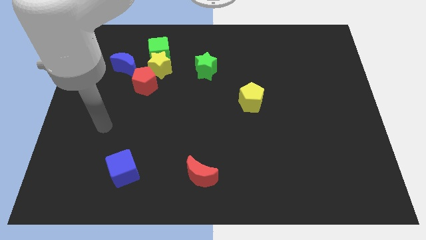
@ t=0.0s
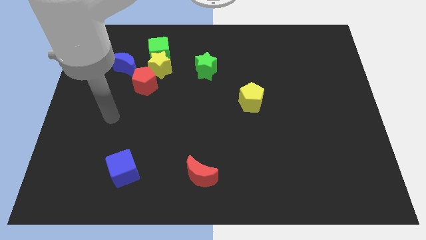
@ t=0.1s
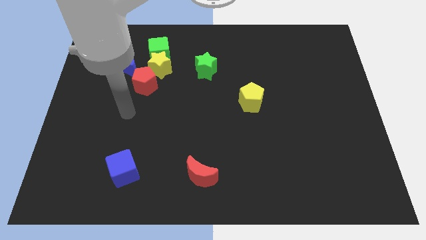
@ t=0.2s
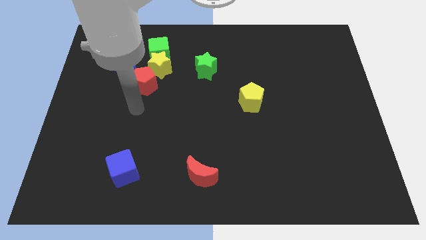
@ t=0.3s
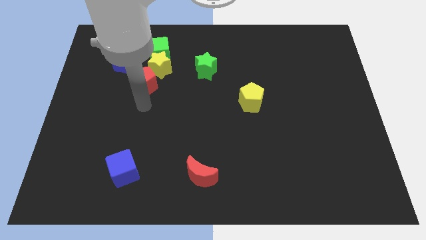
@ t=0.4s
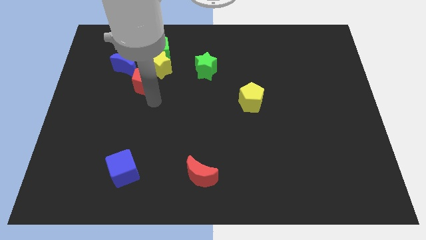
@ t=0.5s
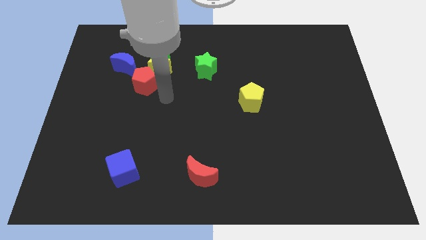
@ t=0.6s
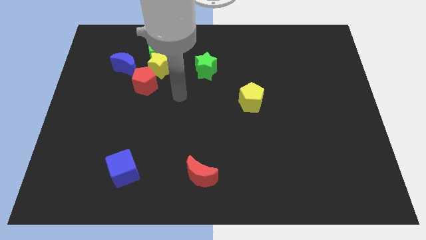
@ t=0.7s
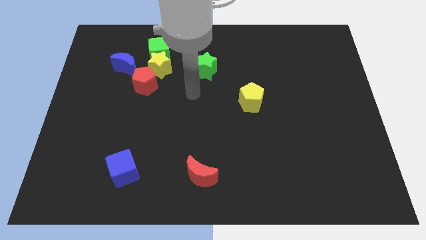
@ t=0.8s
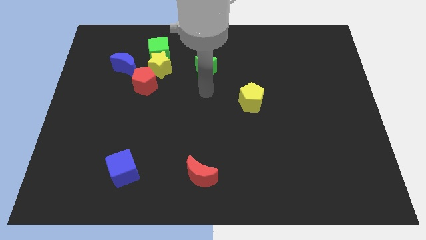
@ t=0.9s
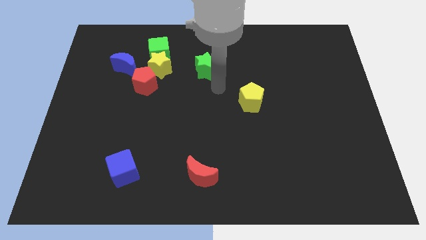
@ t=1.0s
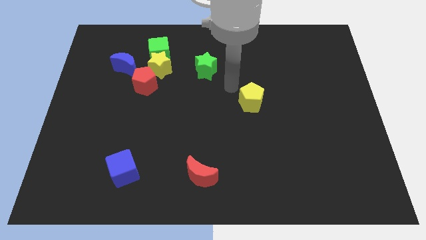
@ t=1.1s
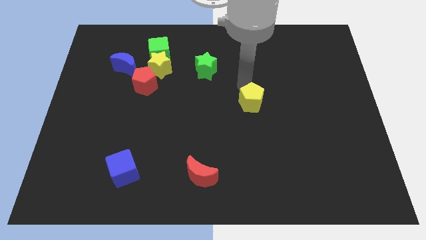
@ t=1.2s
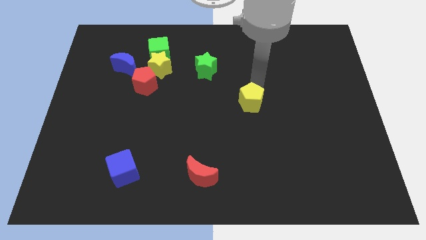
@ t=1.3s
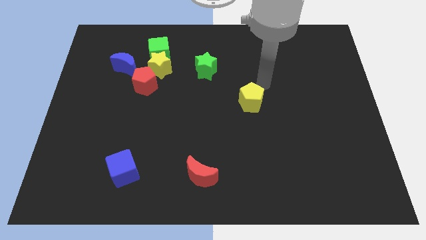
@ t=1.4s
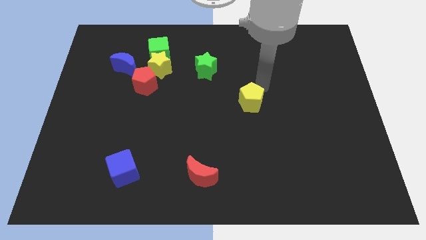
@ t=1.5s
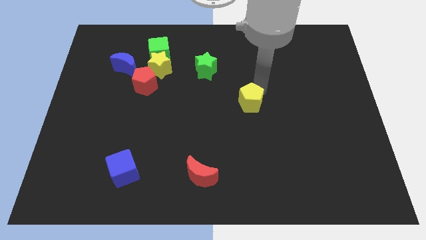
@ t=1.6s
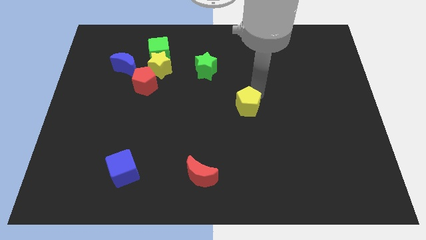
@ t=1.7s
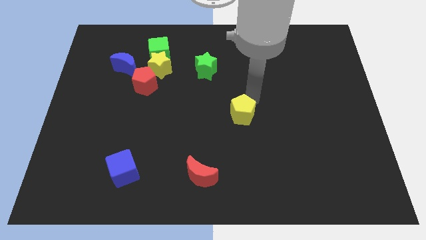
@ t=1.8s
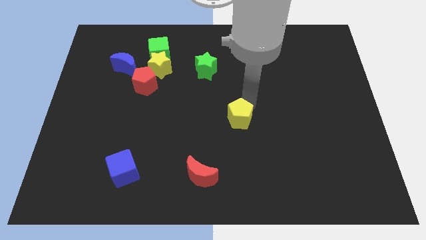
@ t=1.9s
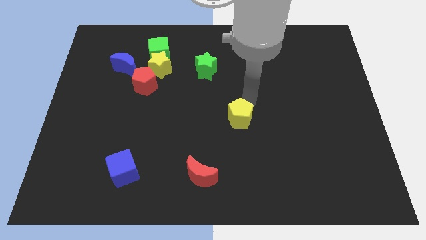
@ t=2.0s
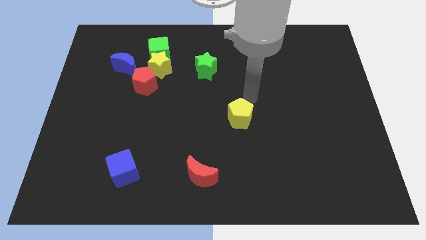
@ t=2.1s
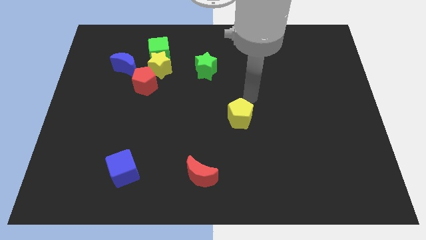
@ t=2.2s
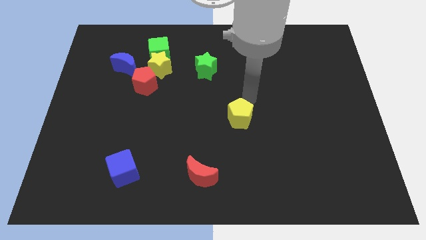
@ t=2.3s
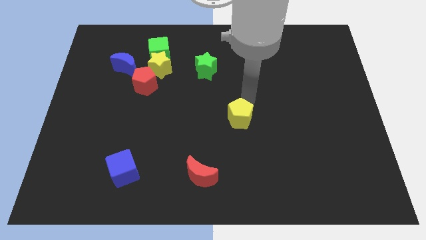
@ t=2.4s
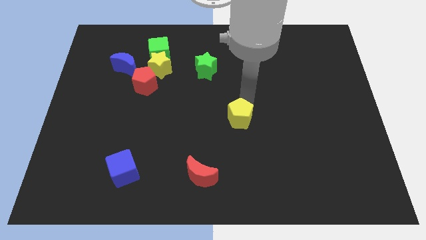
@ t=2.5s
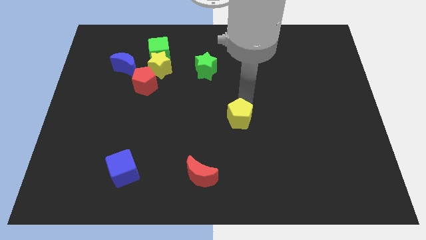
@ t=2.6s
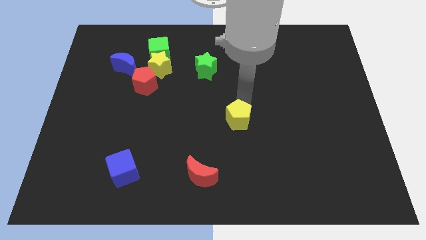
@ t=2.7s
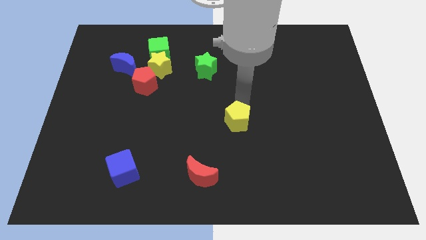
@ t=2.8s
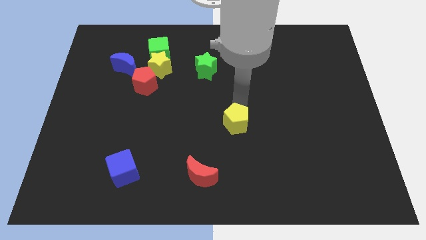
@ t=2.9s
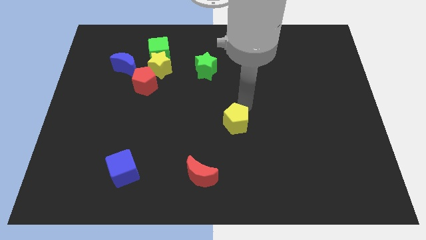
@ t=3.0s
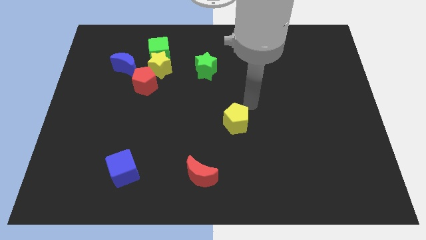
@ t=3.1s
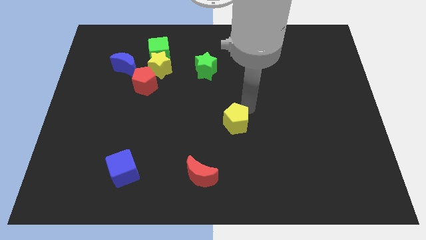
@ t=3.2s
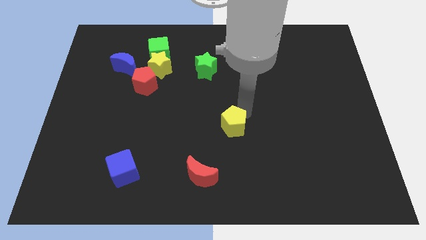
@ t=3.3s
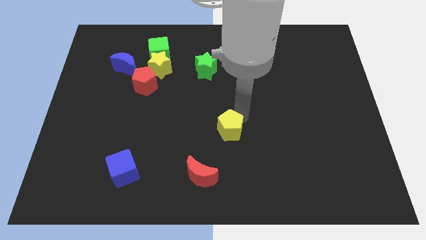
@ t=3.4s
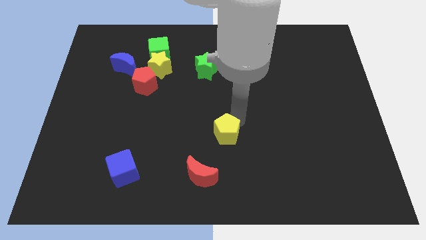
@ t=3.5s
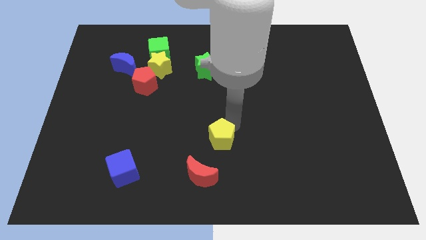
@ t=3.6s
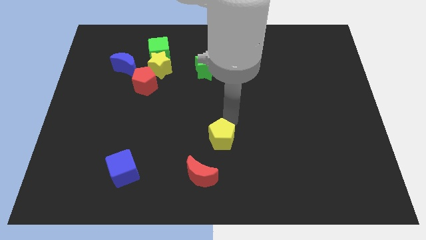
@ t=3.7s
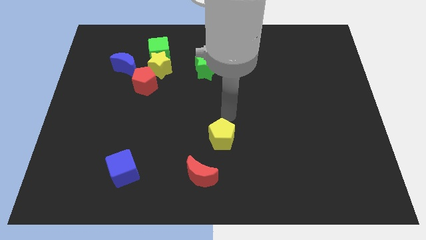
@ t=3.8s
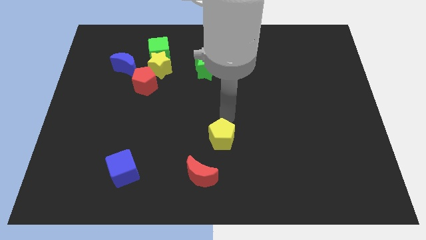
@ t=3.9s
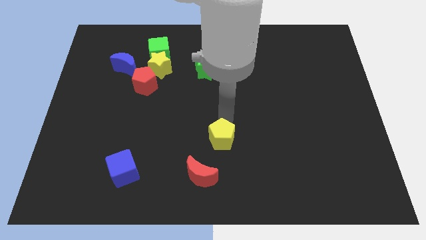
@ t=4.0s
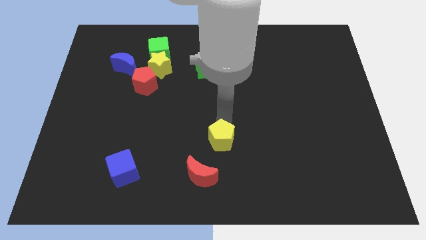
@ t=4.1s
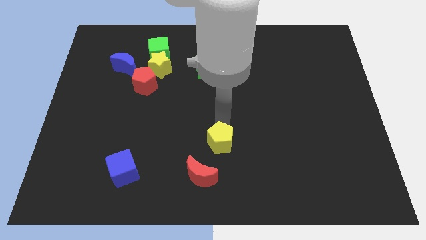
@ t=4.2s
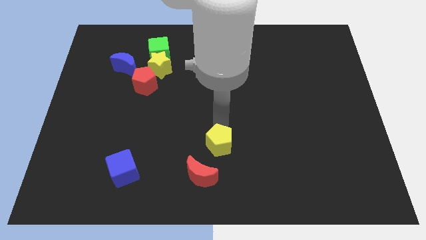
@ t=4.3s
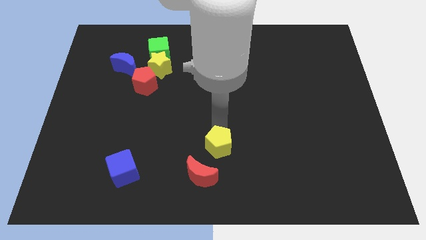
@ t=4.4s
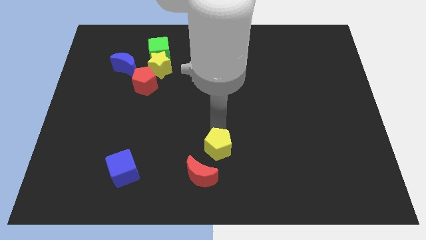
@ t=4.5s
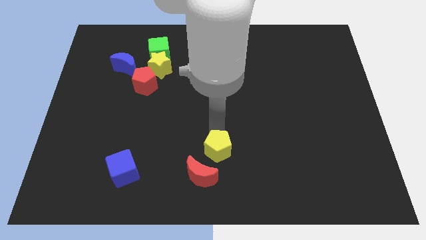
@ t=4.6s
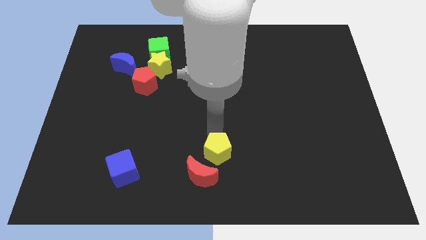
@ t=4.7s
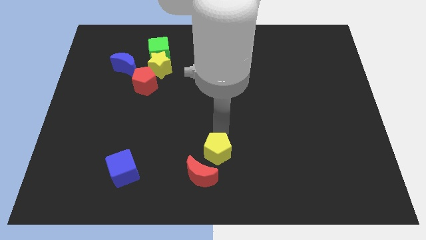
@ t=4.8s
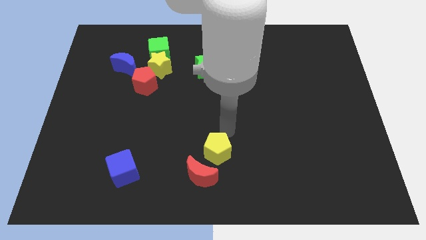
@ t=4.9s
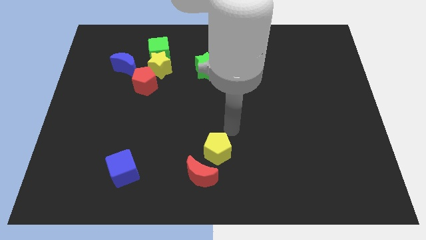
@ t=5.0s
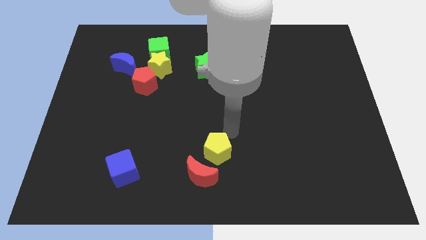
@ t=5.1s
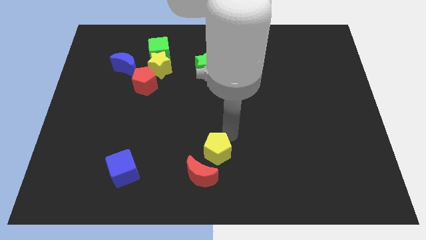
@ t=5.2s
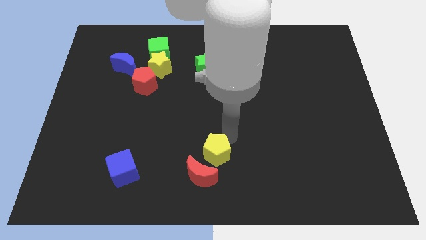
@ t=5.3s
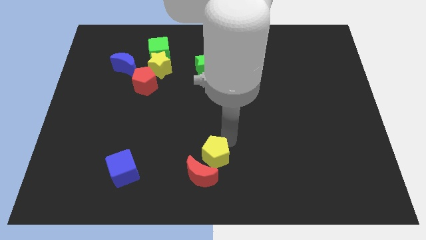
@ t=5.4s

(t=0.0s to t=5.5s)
push the yellow pentagon close to the red moon

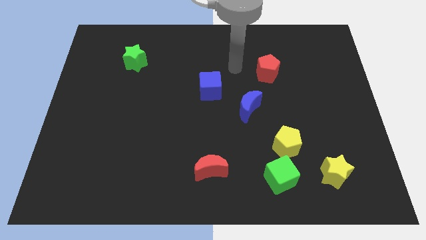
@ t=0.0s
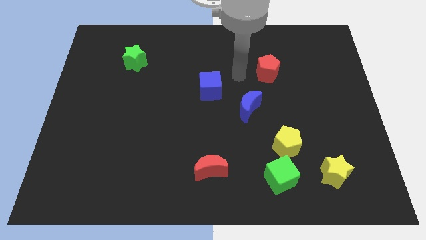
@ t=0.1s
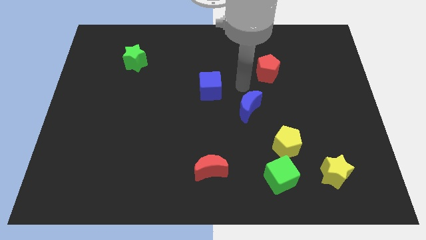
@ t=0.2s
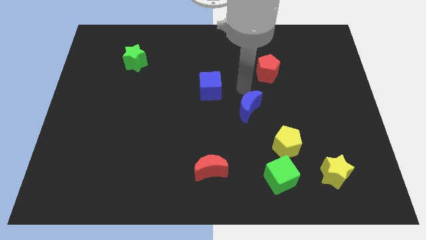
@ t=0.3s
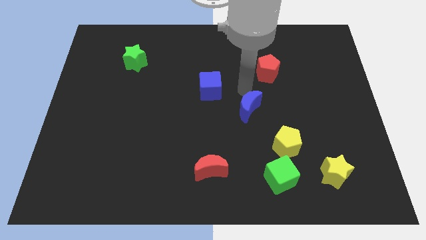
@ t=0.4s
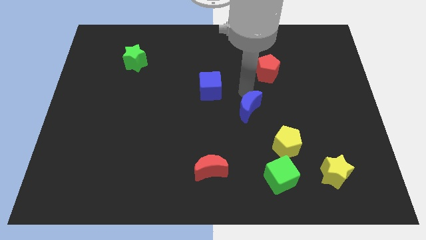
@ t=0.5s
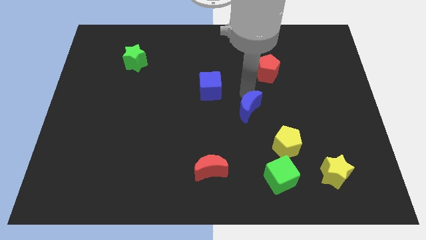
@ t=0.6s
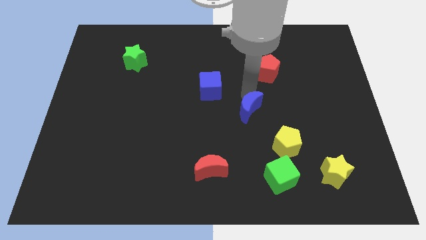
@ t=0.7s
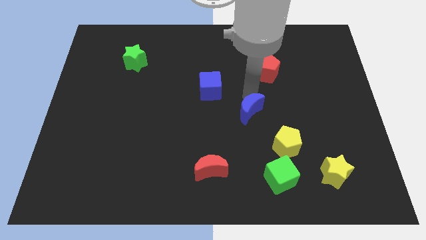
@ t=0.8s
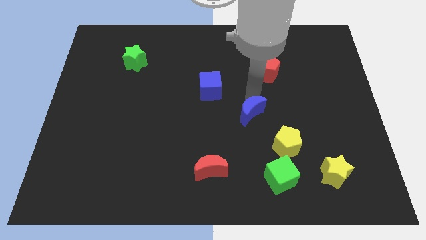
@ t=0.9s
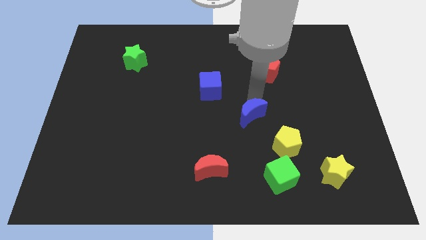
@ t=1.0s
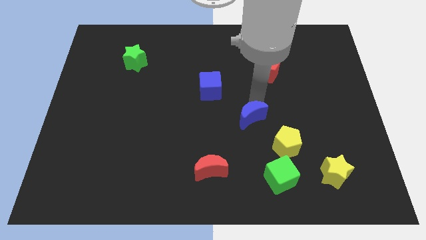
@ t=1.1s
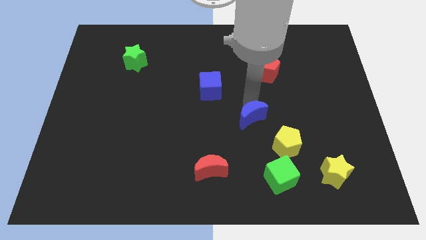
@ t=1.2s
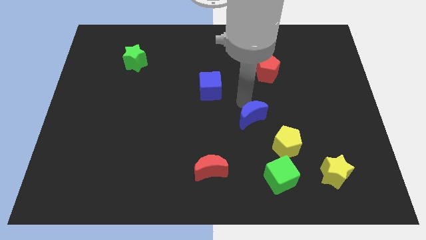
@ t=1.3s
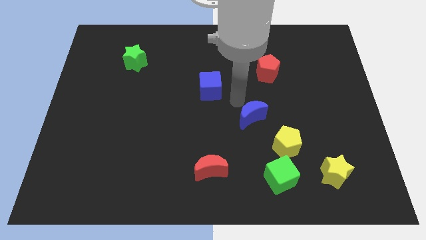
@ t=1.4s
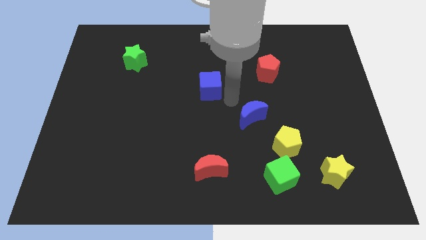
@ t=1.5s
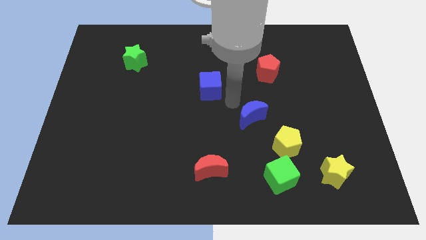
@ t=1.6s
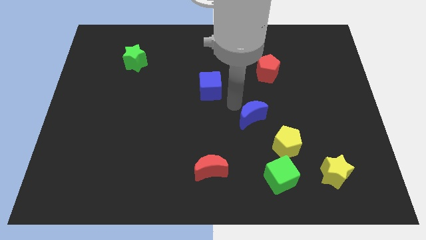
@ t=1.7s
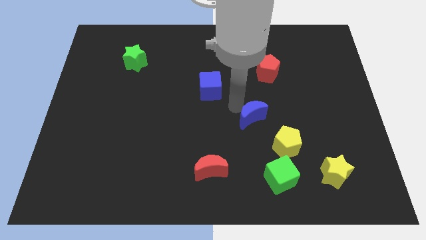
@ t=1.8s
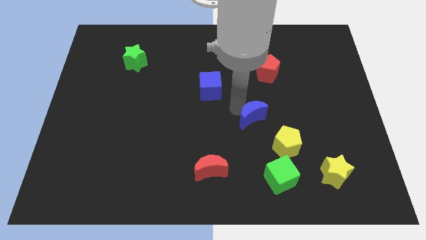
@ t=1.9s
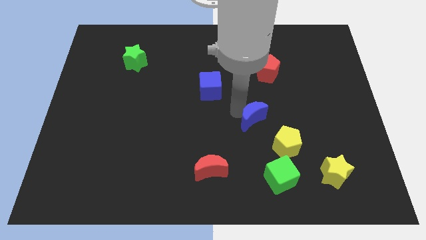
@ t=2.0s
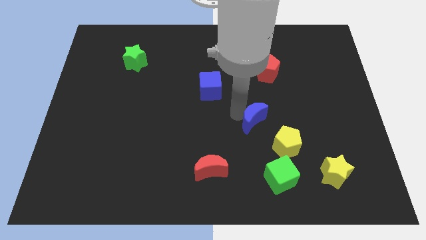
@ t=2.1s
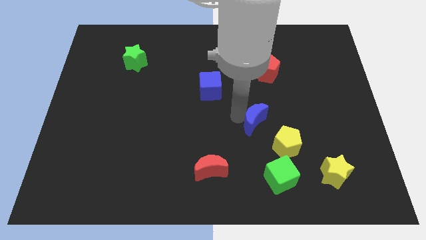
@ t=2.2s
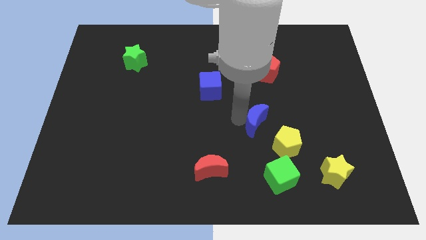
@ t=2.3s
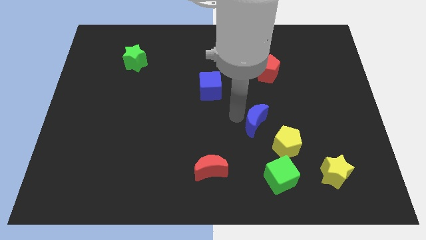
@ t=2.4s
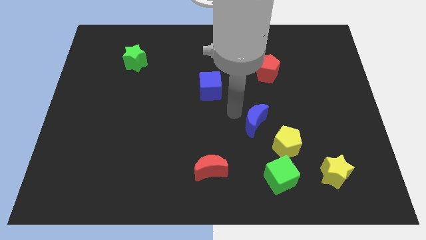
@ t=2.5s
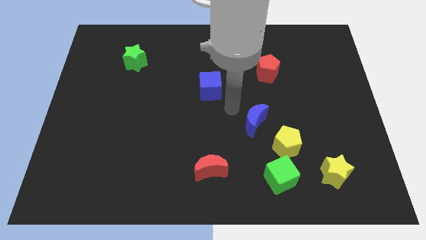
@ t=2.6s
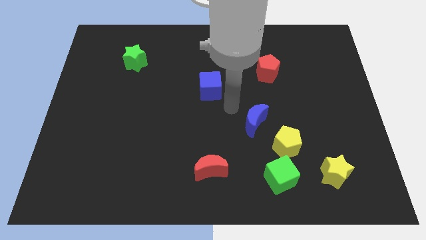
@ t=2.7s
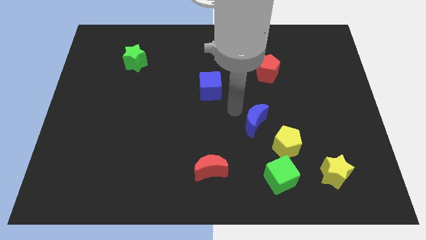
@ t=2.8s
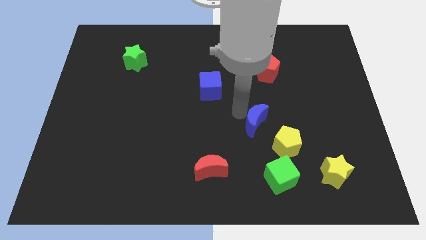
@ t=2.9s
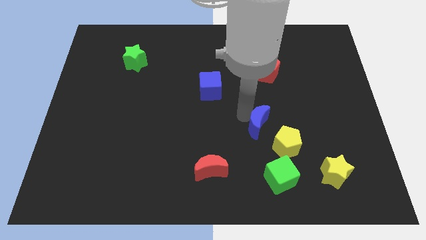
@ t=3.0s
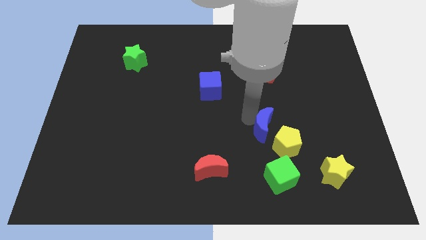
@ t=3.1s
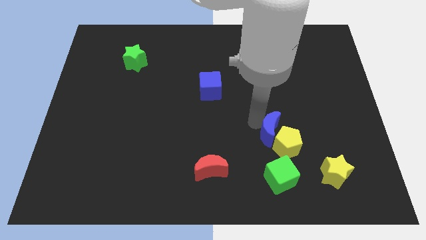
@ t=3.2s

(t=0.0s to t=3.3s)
slide the blue moon close to the yellow pentagon
